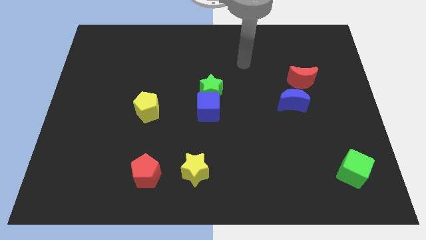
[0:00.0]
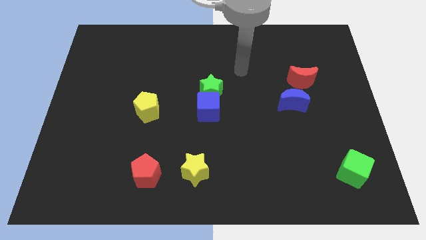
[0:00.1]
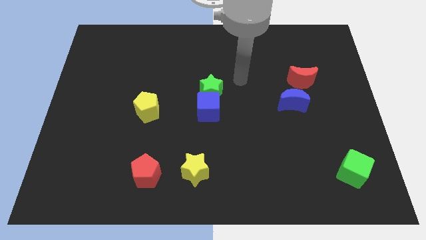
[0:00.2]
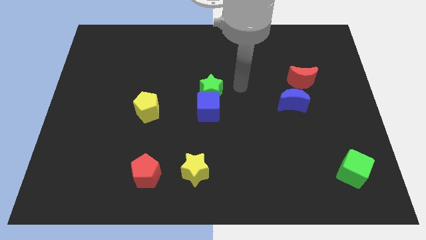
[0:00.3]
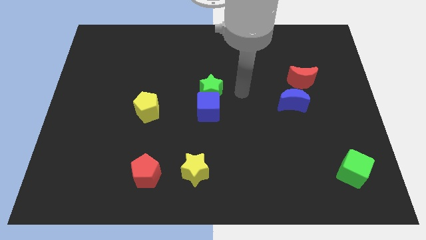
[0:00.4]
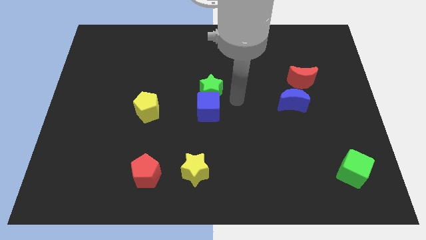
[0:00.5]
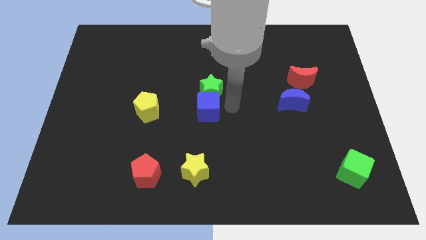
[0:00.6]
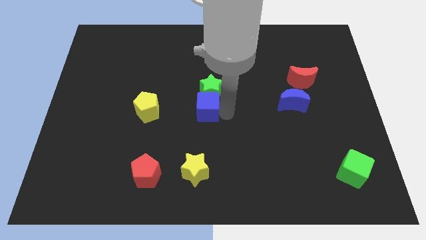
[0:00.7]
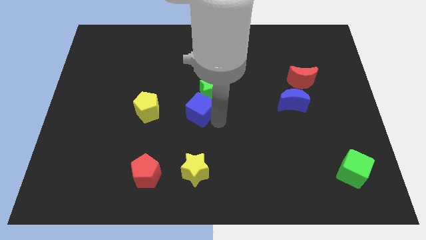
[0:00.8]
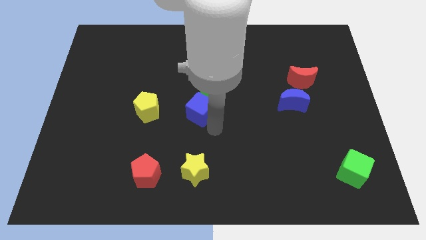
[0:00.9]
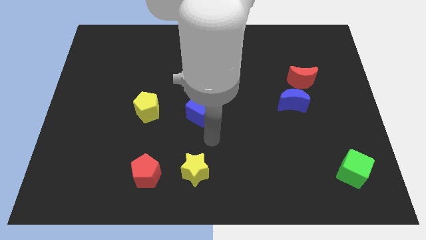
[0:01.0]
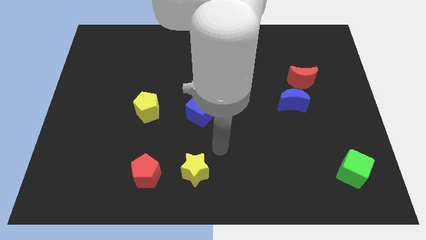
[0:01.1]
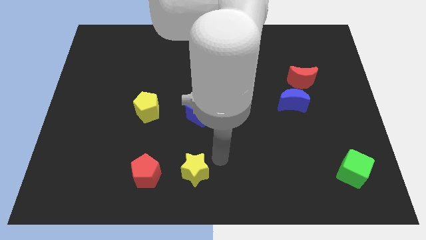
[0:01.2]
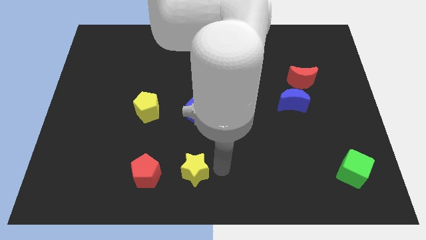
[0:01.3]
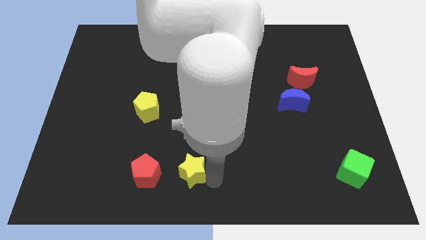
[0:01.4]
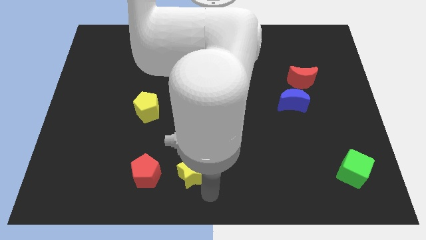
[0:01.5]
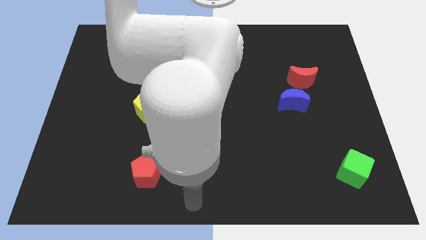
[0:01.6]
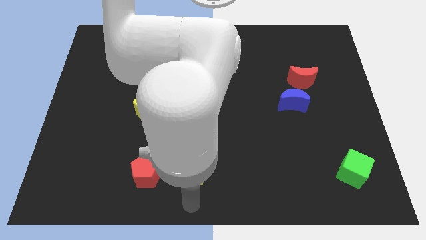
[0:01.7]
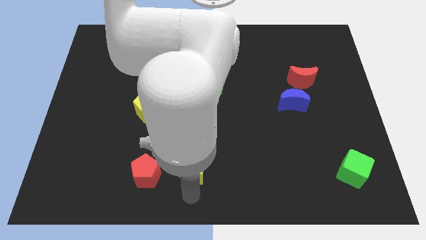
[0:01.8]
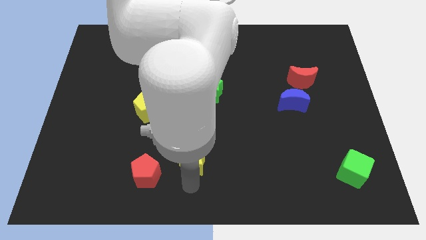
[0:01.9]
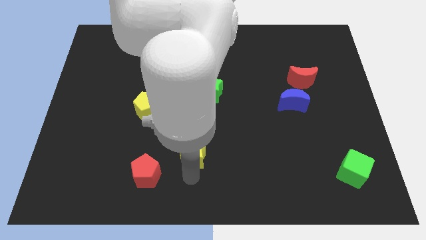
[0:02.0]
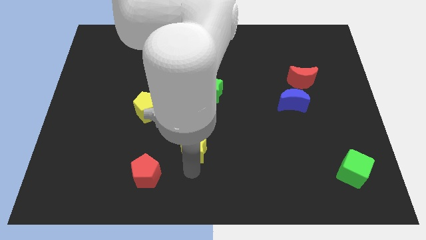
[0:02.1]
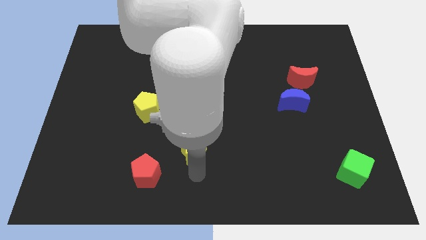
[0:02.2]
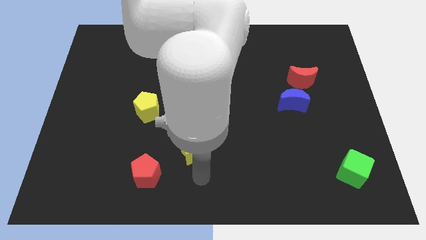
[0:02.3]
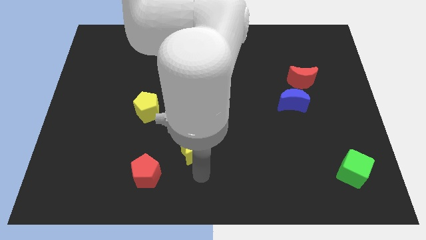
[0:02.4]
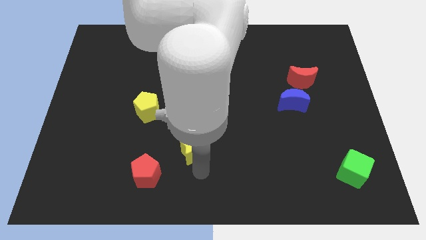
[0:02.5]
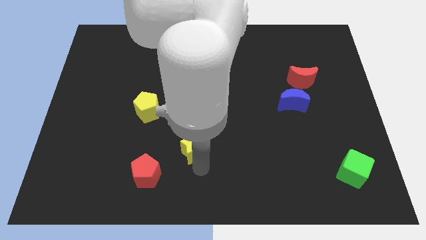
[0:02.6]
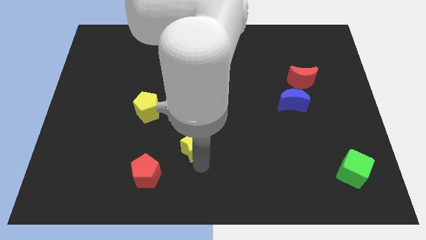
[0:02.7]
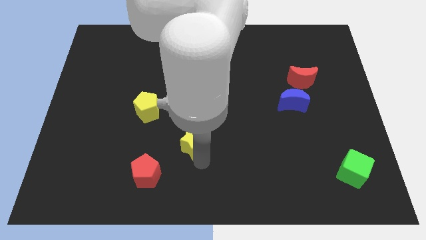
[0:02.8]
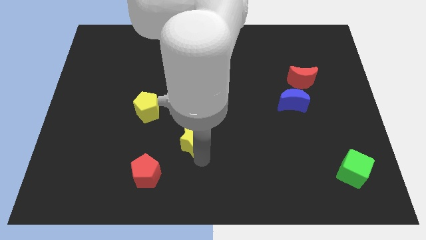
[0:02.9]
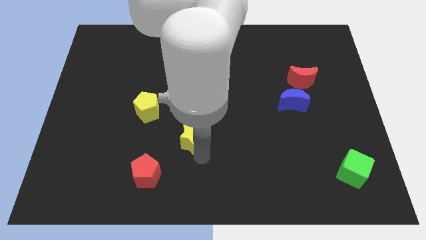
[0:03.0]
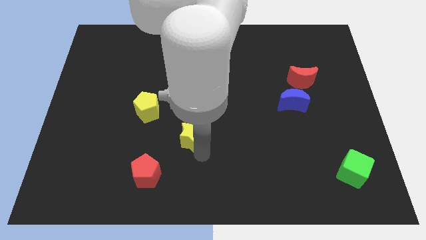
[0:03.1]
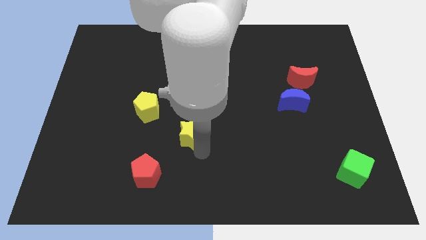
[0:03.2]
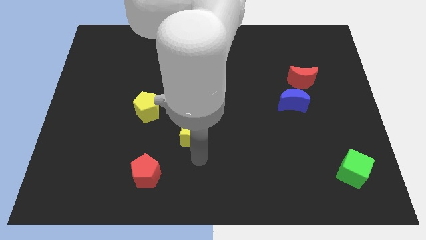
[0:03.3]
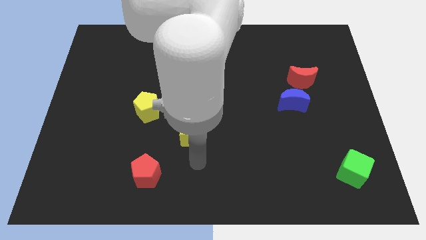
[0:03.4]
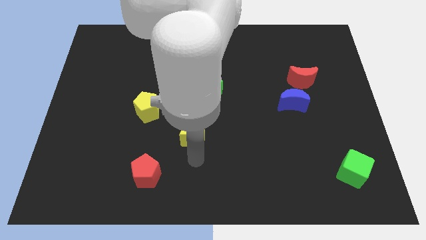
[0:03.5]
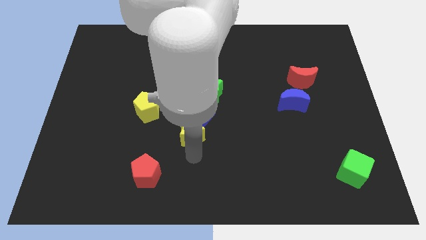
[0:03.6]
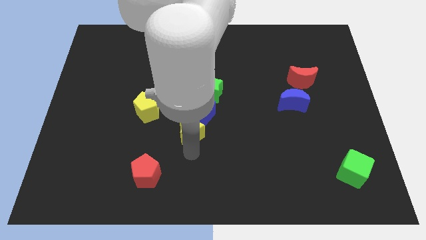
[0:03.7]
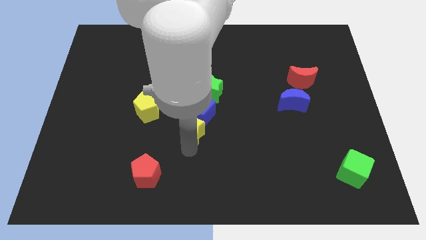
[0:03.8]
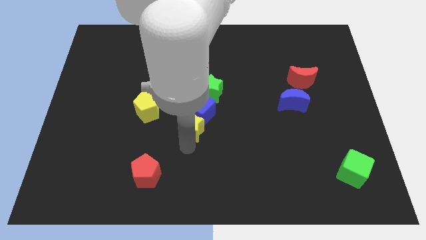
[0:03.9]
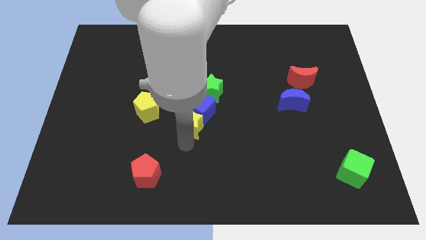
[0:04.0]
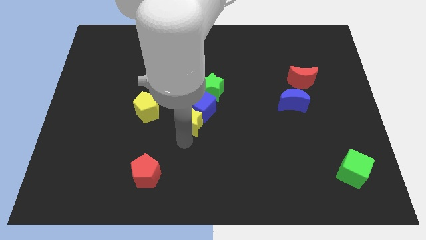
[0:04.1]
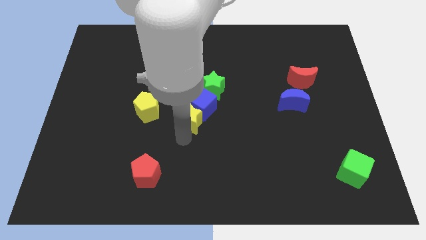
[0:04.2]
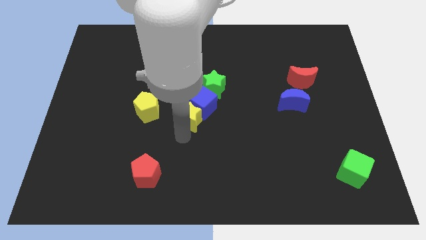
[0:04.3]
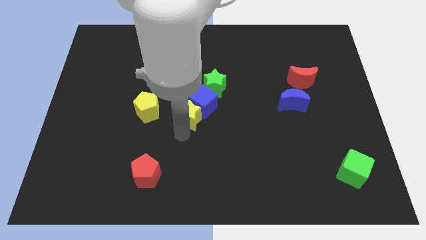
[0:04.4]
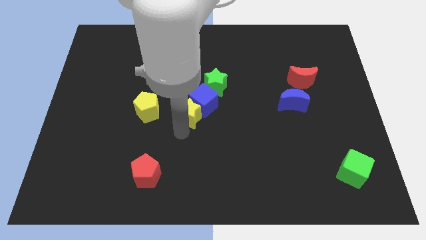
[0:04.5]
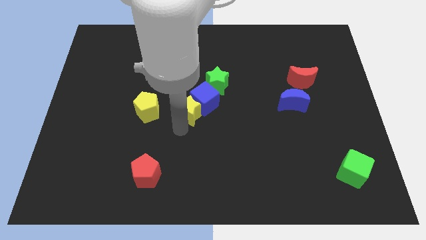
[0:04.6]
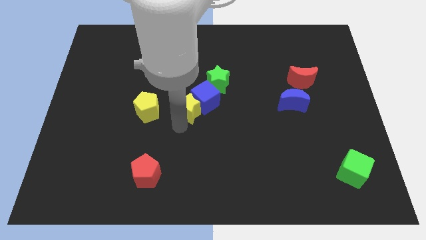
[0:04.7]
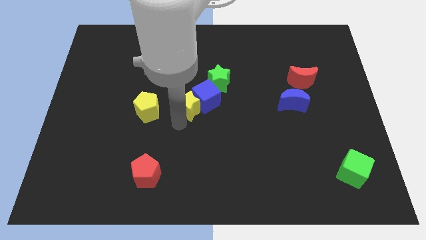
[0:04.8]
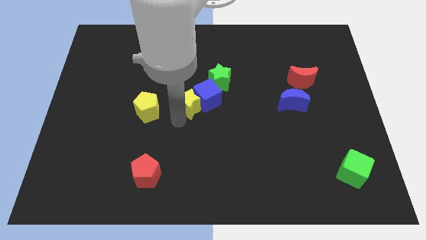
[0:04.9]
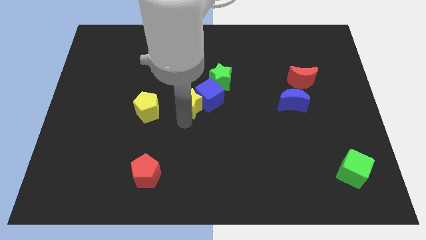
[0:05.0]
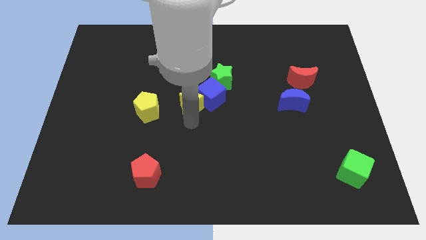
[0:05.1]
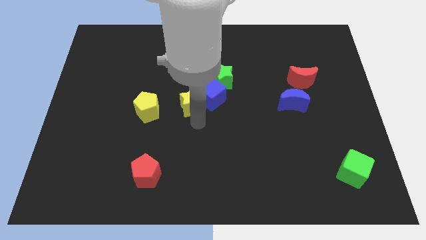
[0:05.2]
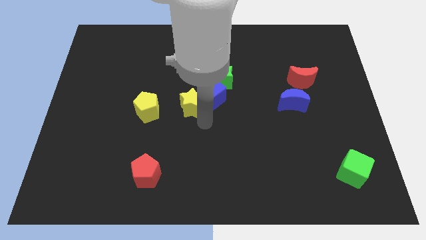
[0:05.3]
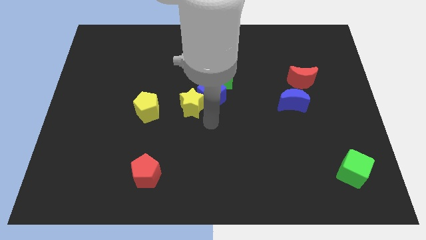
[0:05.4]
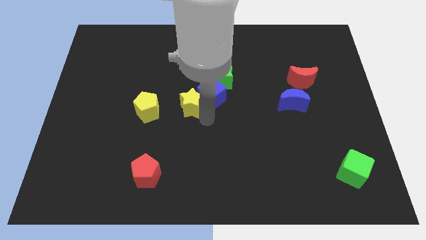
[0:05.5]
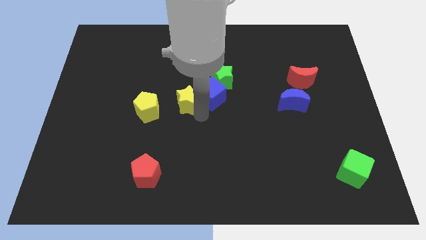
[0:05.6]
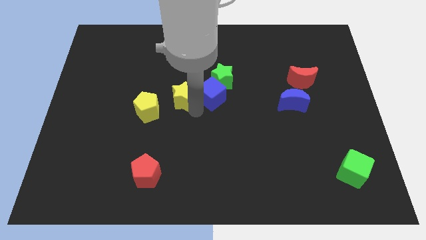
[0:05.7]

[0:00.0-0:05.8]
put the yellow star diagonally up and to the right of the yellow pentagon

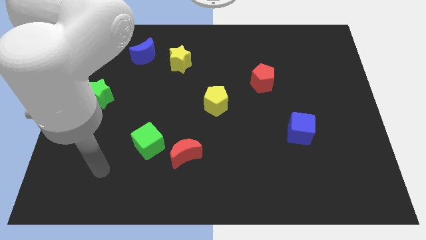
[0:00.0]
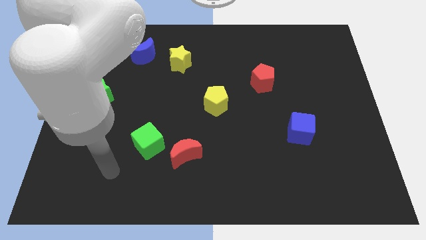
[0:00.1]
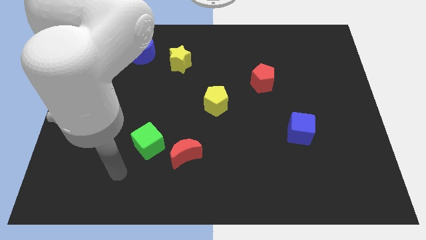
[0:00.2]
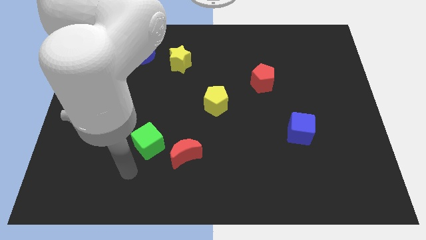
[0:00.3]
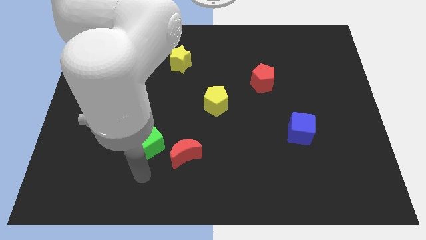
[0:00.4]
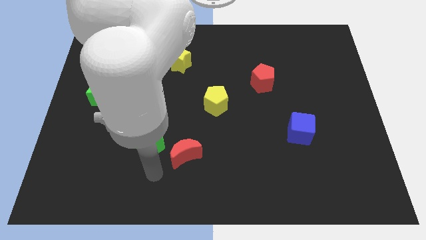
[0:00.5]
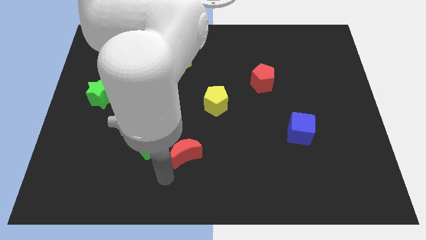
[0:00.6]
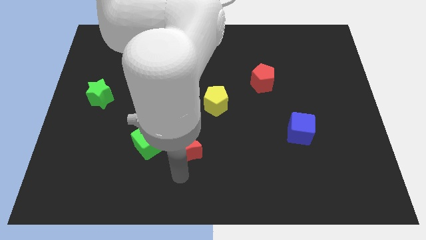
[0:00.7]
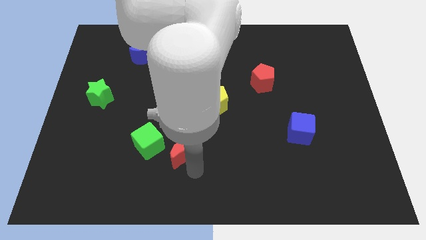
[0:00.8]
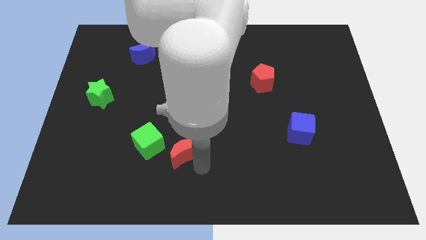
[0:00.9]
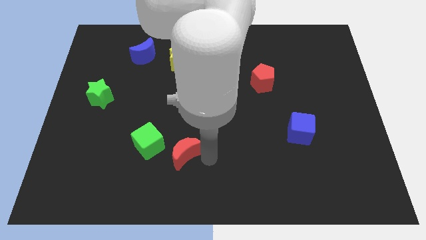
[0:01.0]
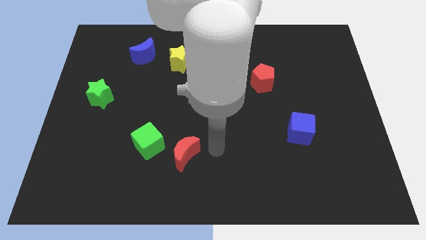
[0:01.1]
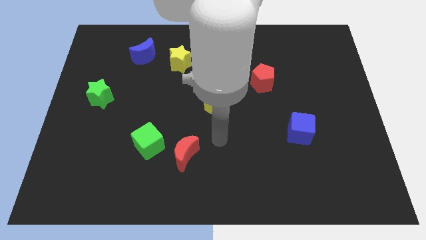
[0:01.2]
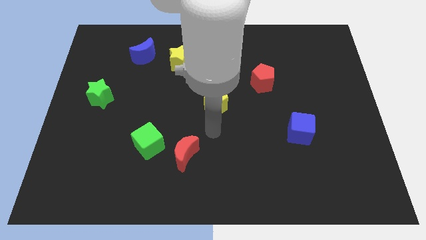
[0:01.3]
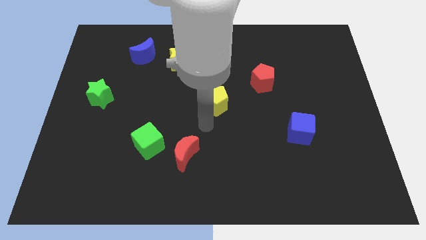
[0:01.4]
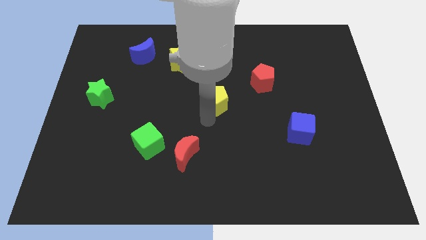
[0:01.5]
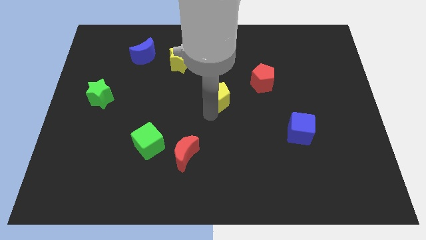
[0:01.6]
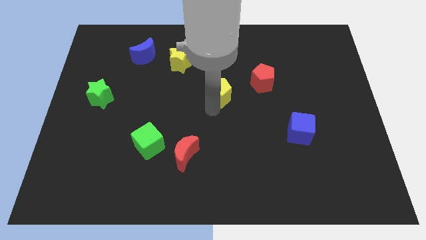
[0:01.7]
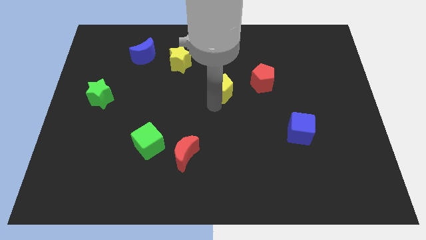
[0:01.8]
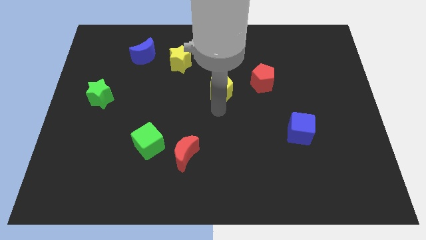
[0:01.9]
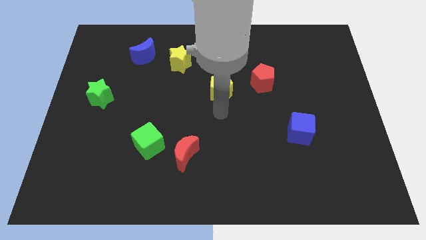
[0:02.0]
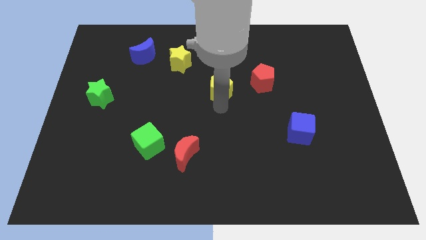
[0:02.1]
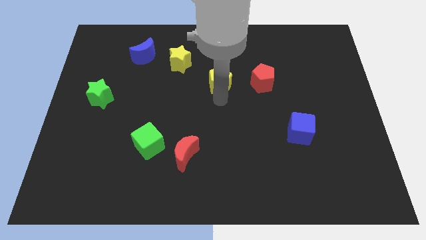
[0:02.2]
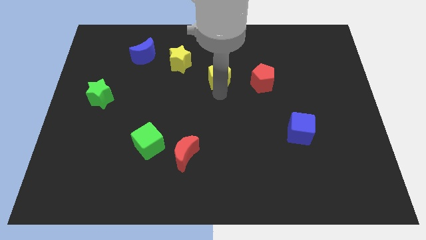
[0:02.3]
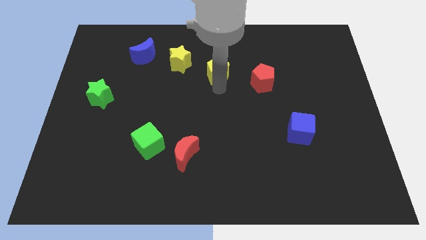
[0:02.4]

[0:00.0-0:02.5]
slide the yellow pentagon right of the yellow star
